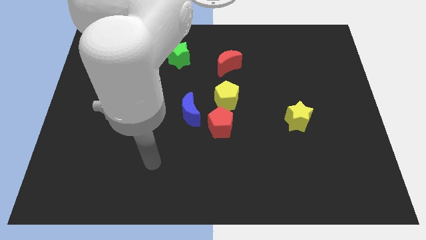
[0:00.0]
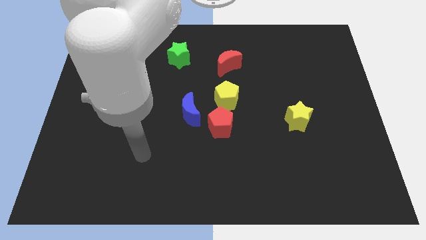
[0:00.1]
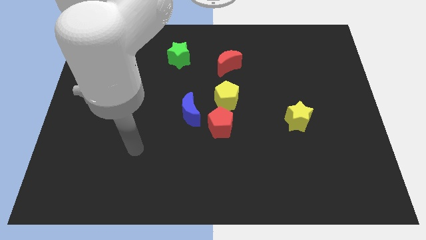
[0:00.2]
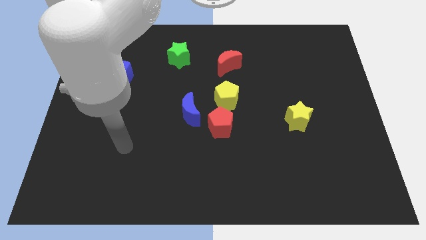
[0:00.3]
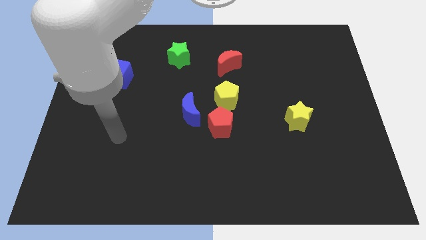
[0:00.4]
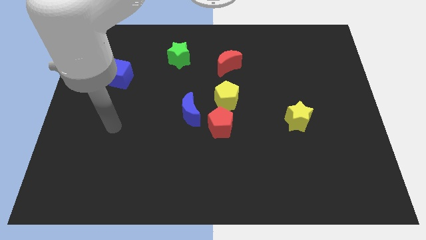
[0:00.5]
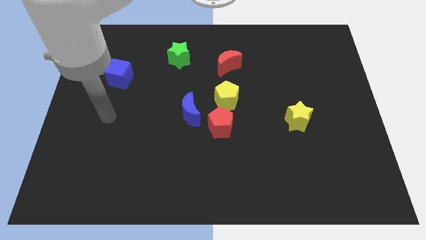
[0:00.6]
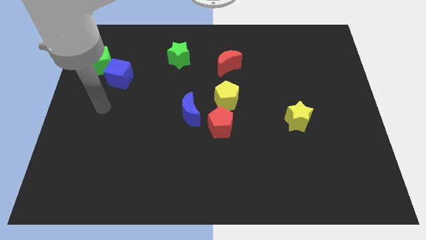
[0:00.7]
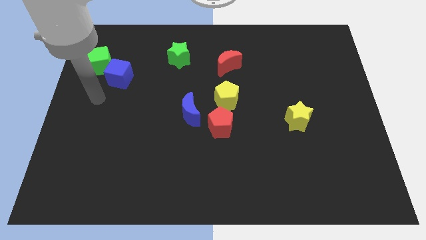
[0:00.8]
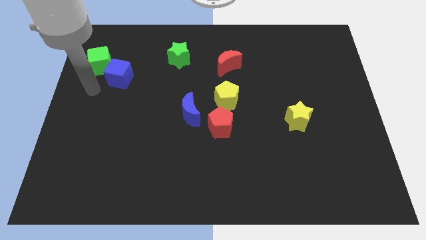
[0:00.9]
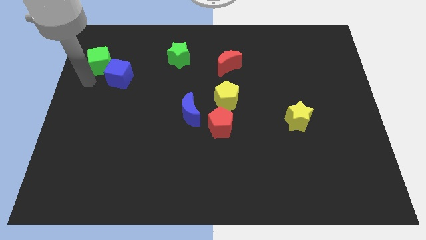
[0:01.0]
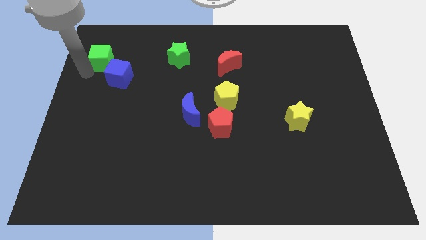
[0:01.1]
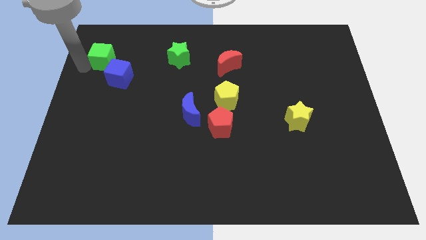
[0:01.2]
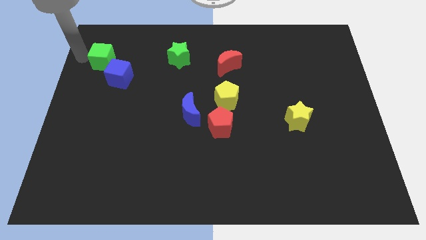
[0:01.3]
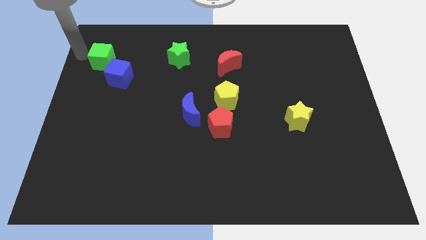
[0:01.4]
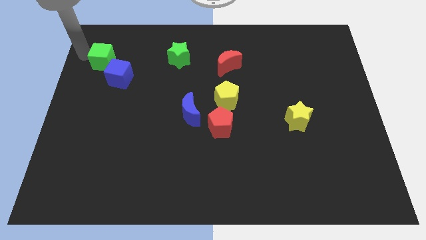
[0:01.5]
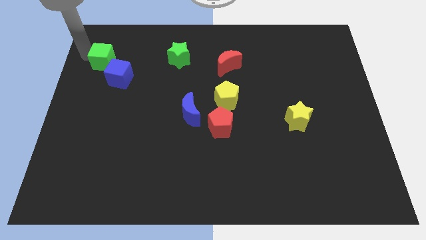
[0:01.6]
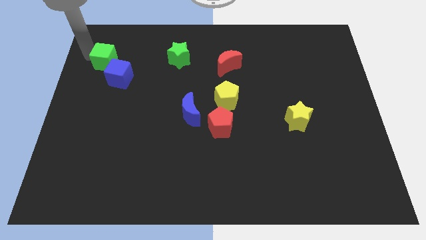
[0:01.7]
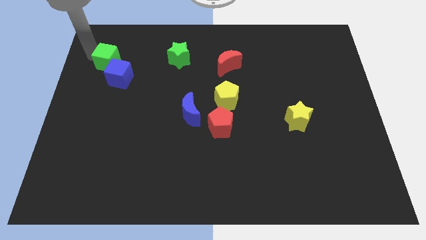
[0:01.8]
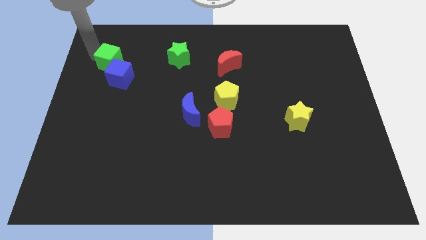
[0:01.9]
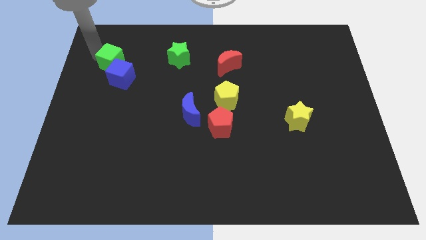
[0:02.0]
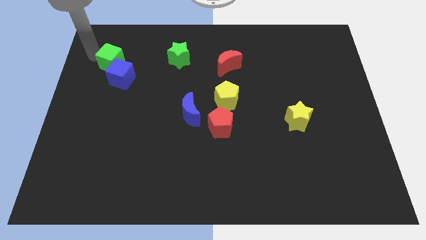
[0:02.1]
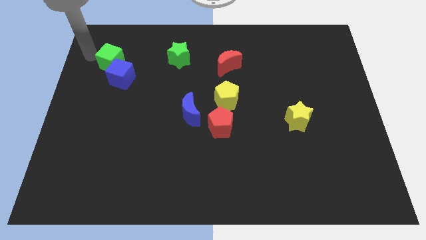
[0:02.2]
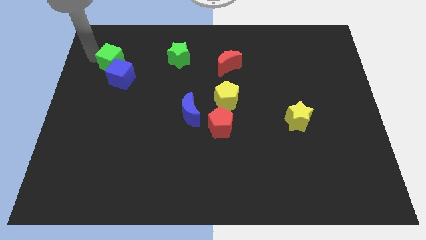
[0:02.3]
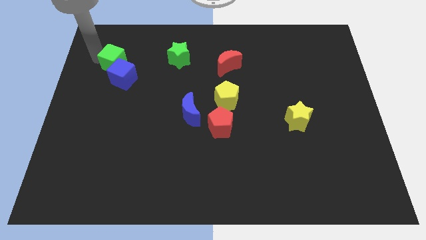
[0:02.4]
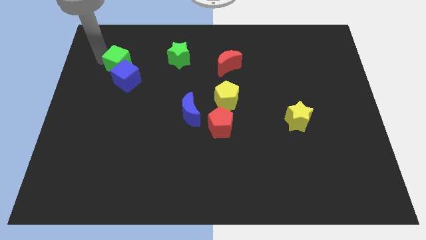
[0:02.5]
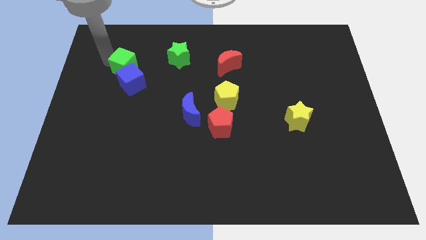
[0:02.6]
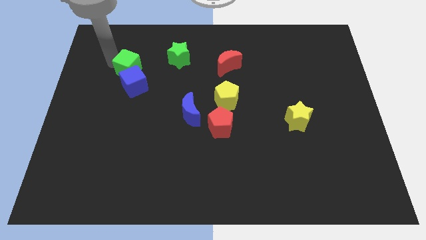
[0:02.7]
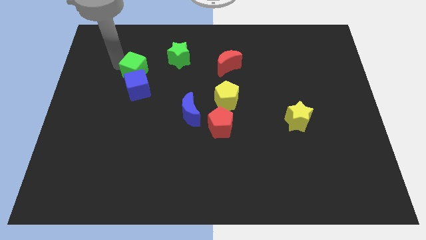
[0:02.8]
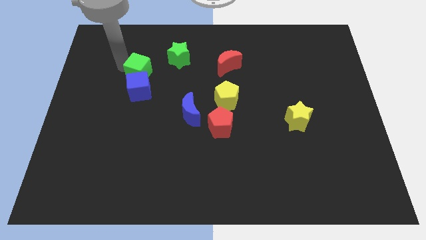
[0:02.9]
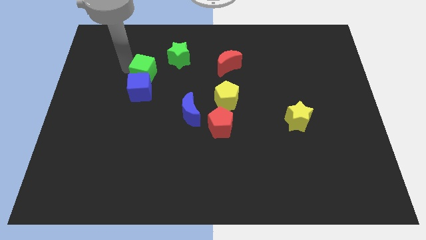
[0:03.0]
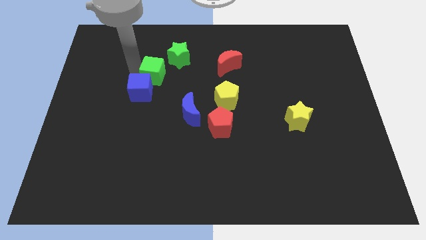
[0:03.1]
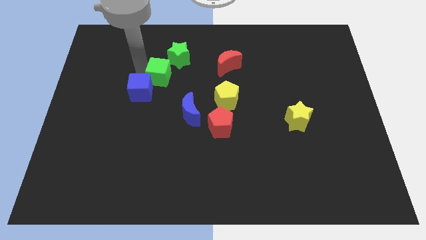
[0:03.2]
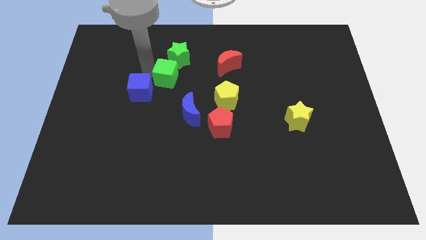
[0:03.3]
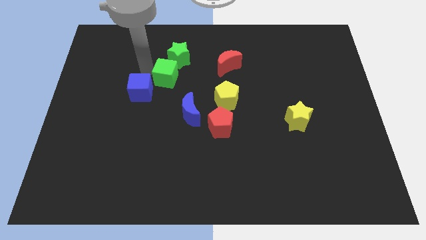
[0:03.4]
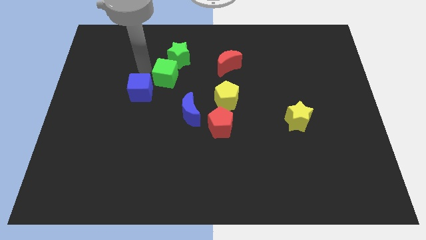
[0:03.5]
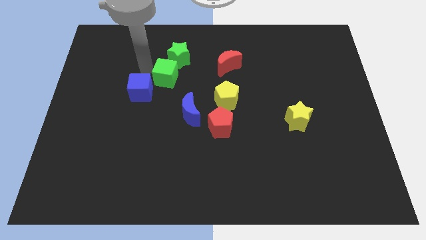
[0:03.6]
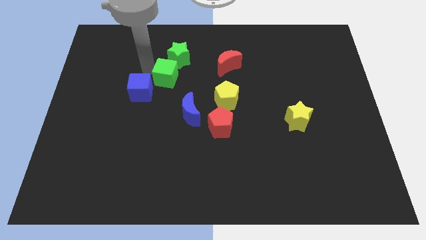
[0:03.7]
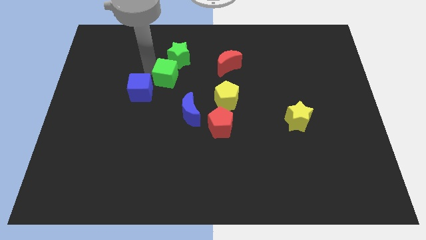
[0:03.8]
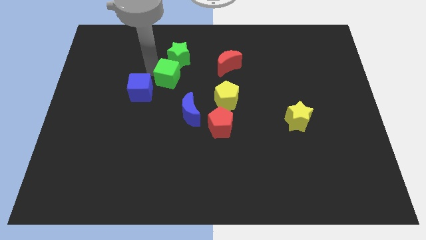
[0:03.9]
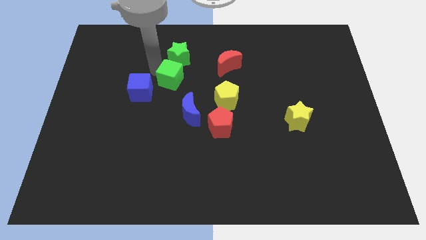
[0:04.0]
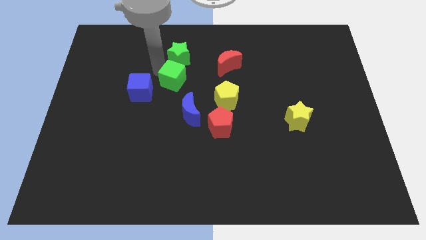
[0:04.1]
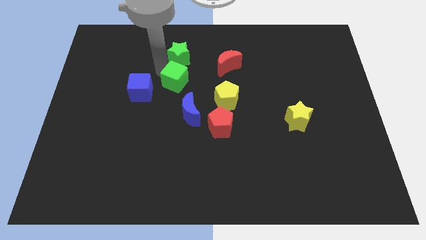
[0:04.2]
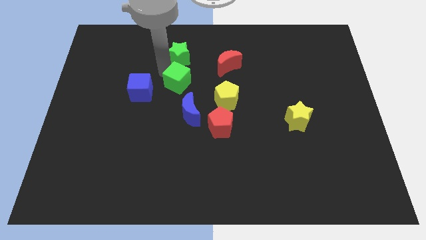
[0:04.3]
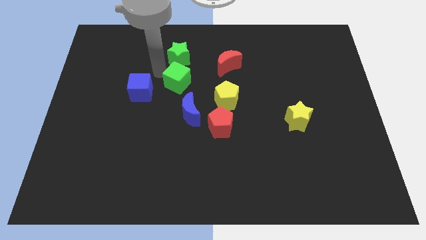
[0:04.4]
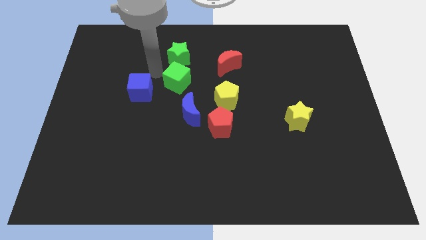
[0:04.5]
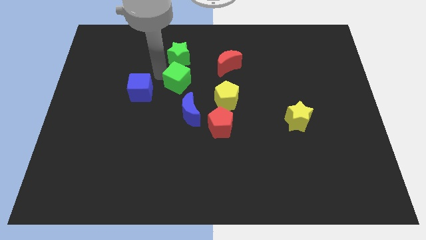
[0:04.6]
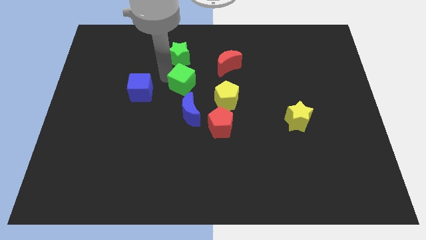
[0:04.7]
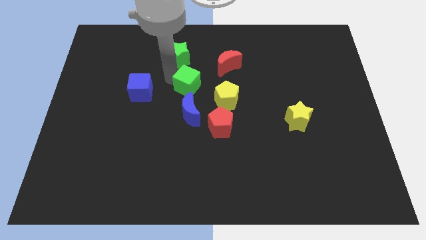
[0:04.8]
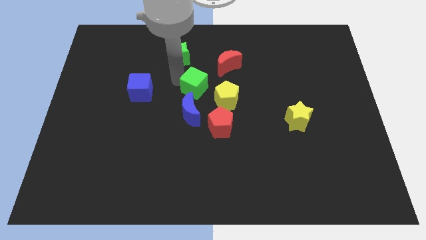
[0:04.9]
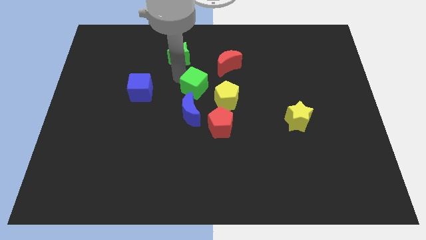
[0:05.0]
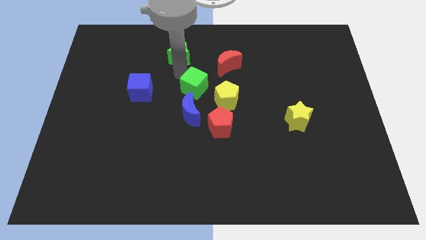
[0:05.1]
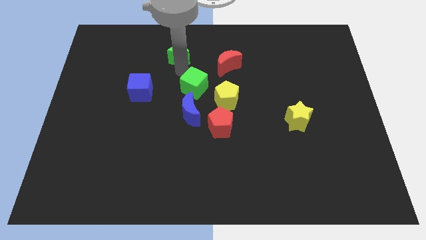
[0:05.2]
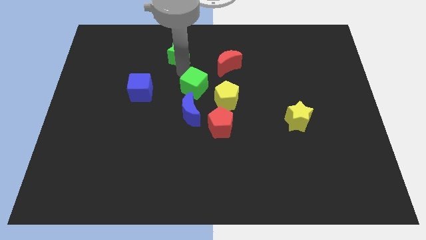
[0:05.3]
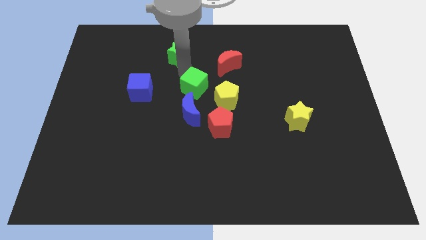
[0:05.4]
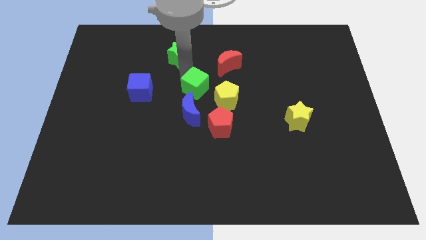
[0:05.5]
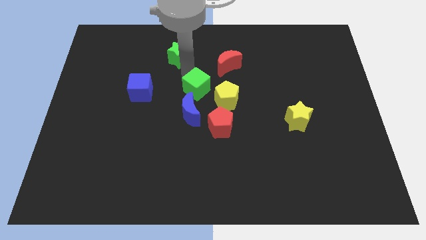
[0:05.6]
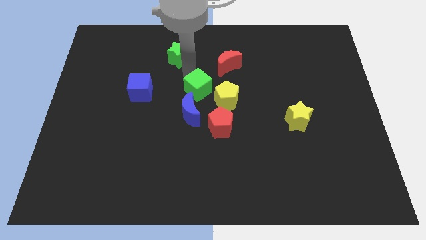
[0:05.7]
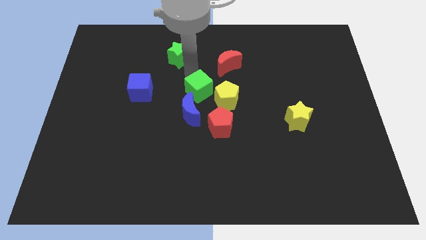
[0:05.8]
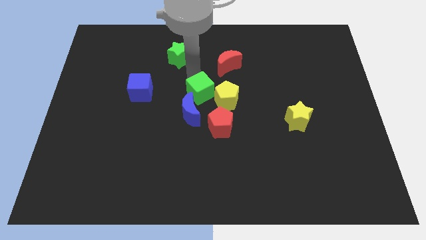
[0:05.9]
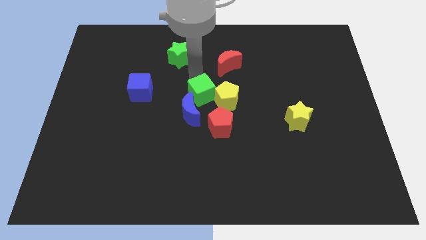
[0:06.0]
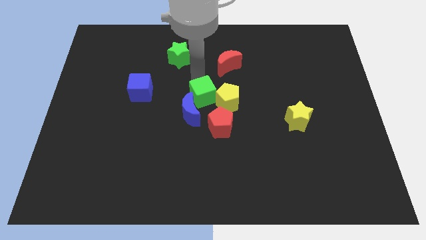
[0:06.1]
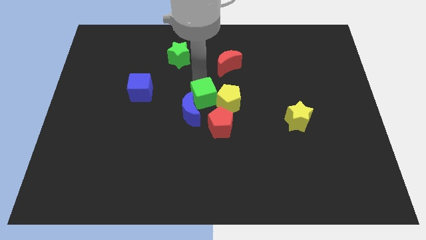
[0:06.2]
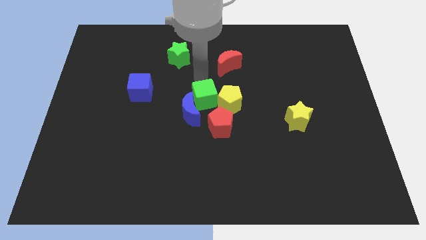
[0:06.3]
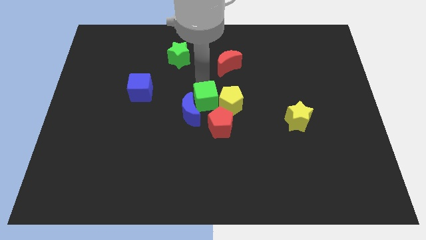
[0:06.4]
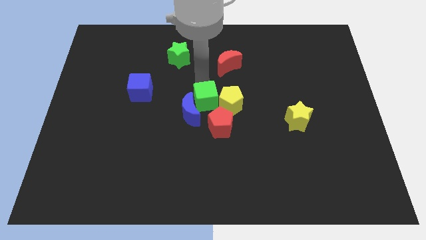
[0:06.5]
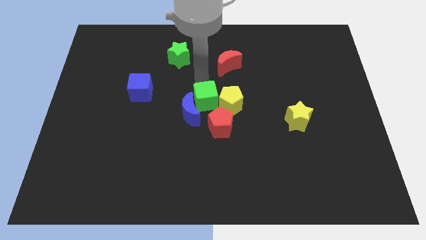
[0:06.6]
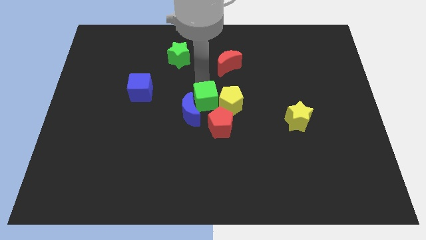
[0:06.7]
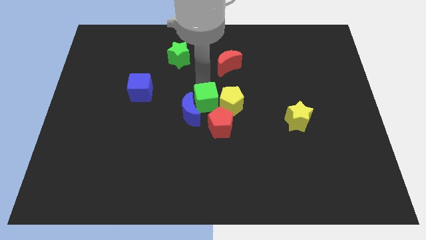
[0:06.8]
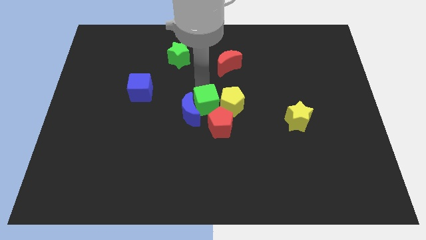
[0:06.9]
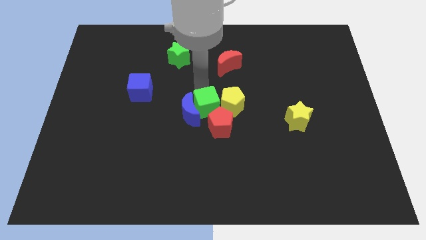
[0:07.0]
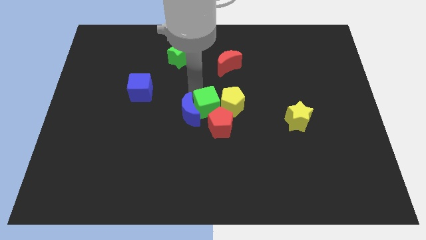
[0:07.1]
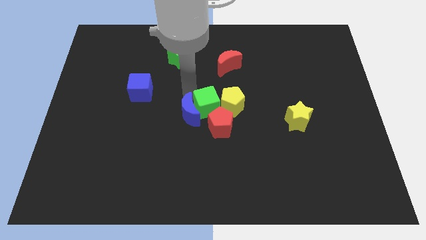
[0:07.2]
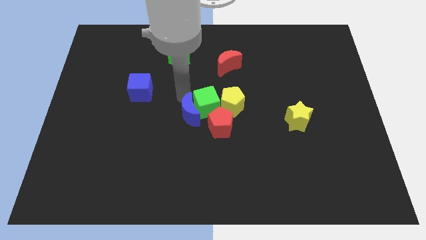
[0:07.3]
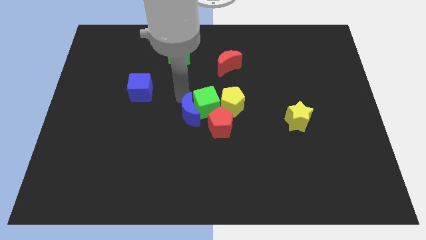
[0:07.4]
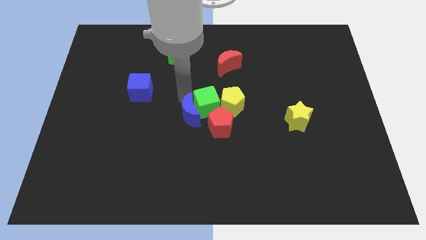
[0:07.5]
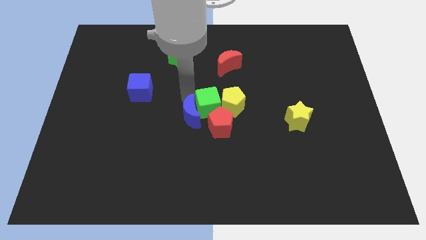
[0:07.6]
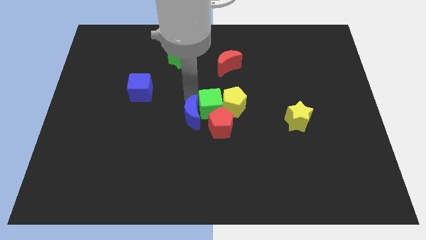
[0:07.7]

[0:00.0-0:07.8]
slide the green cube to the bottom of the red moon
